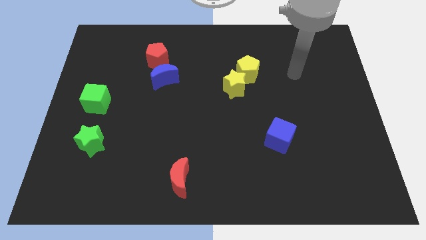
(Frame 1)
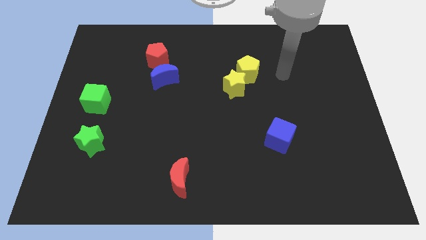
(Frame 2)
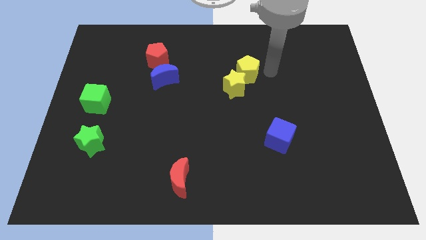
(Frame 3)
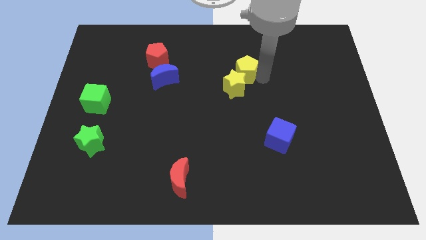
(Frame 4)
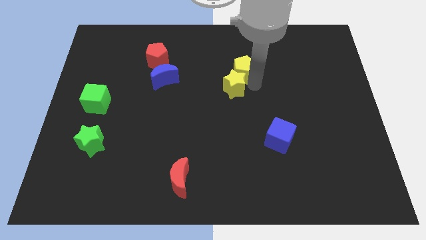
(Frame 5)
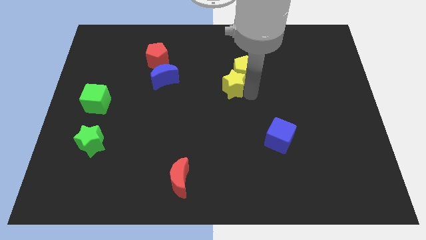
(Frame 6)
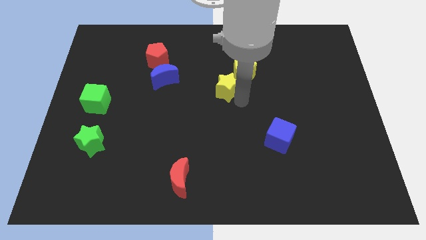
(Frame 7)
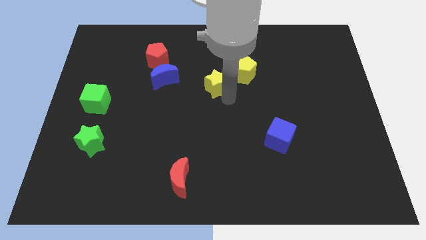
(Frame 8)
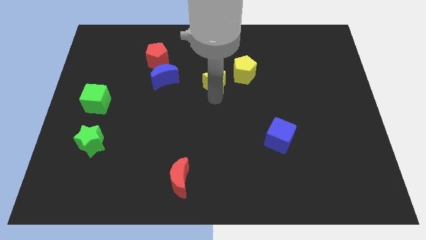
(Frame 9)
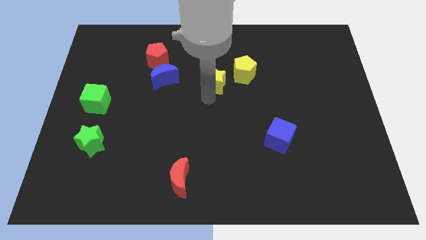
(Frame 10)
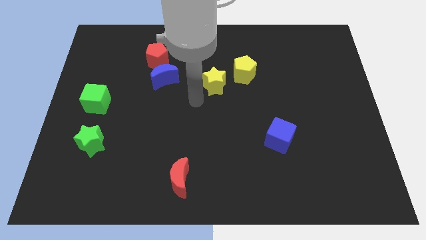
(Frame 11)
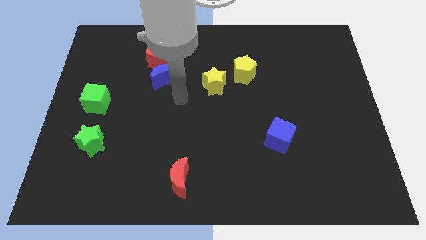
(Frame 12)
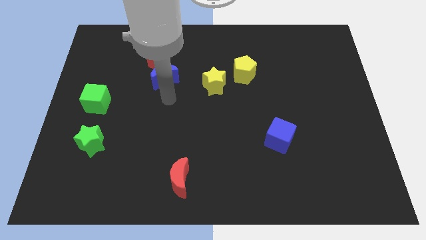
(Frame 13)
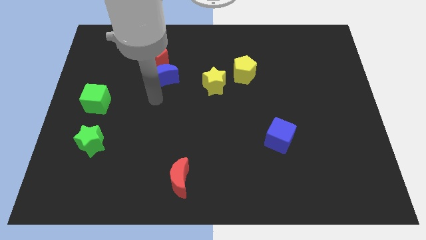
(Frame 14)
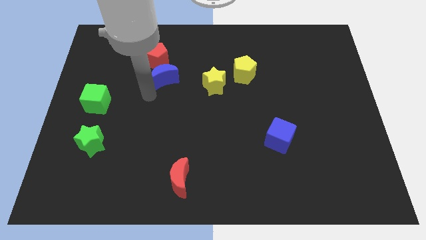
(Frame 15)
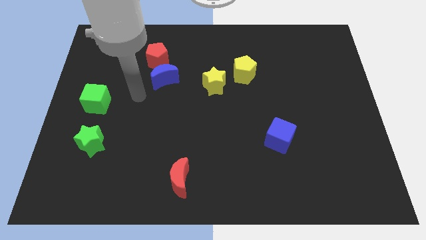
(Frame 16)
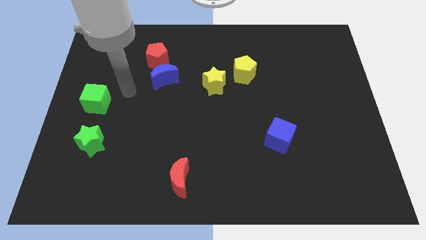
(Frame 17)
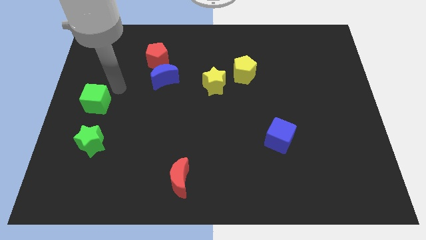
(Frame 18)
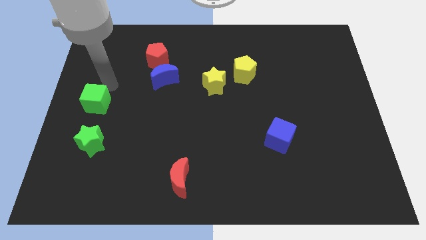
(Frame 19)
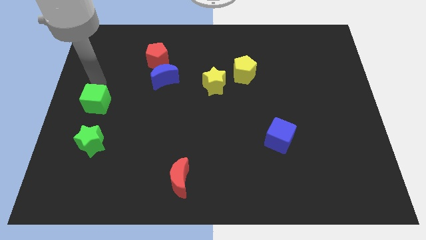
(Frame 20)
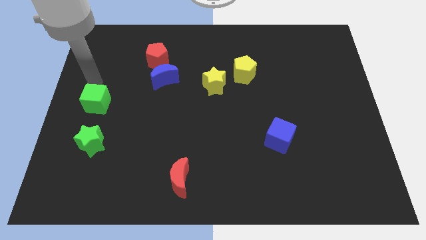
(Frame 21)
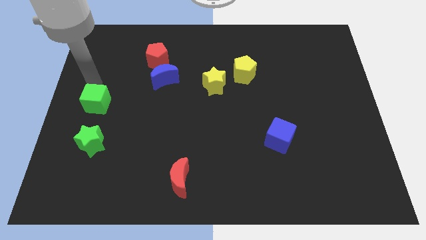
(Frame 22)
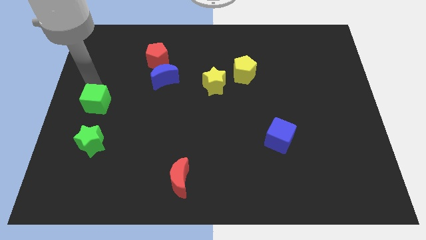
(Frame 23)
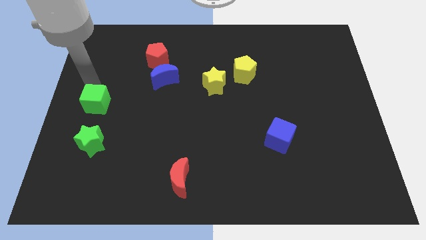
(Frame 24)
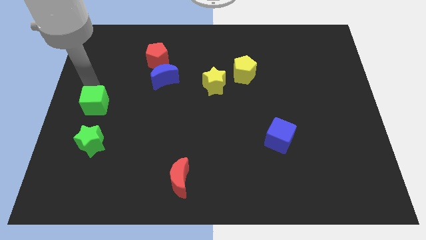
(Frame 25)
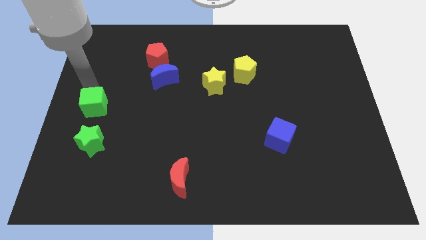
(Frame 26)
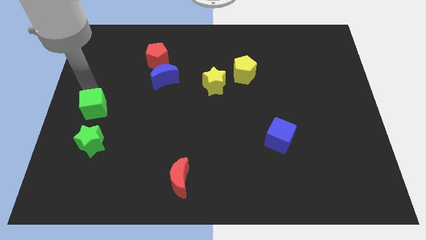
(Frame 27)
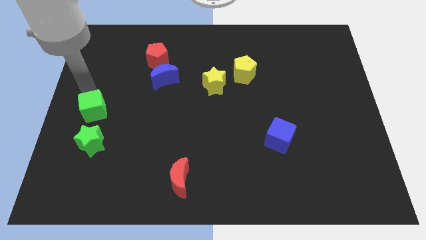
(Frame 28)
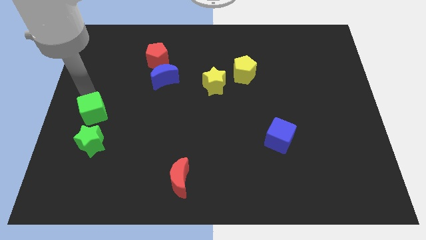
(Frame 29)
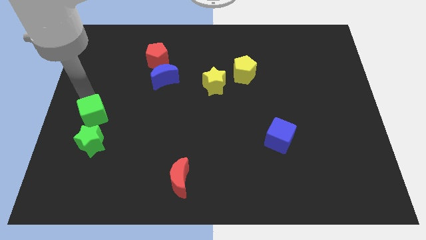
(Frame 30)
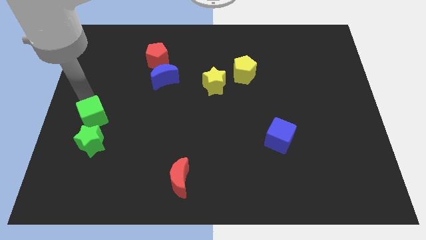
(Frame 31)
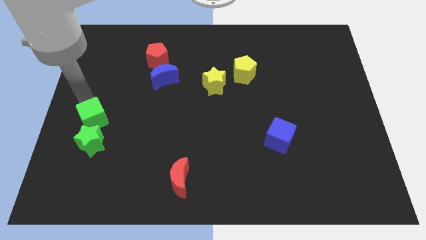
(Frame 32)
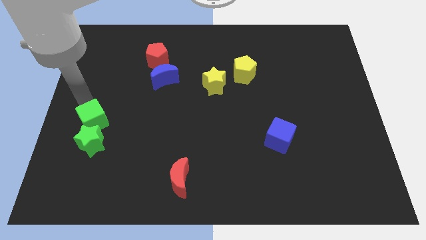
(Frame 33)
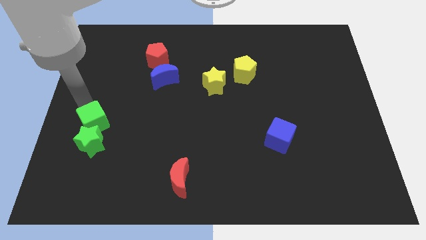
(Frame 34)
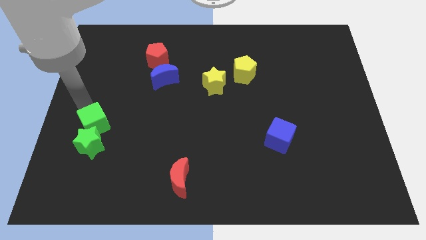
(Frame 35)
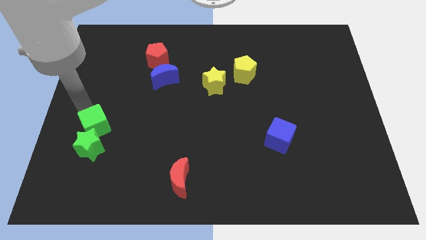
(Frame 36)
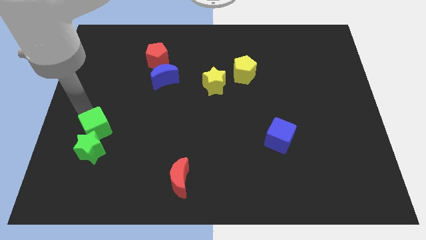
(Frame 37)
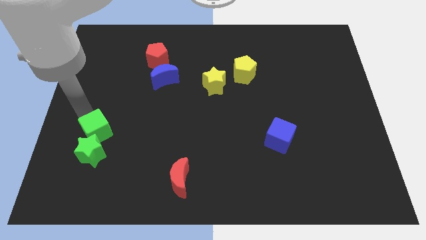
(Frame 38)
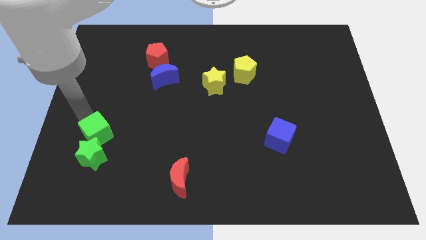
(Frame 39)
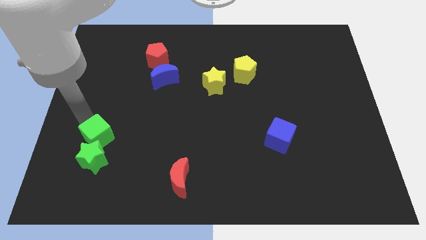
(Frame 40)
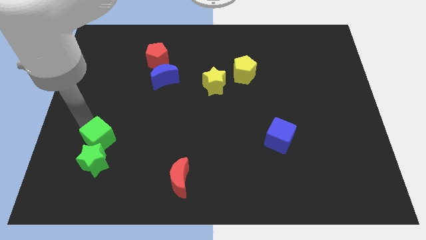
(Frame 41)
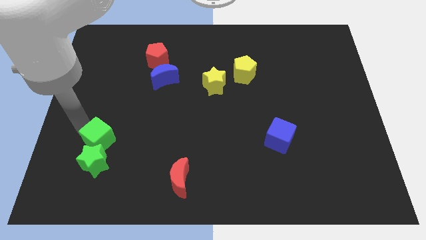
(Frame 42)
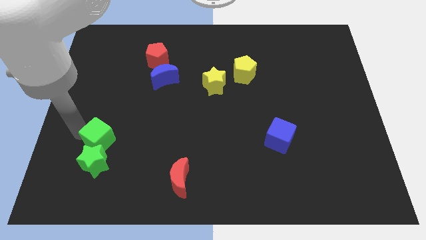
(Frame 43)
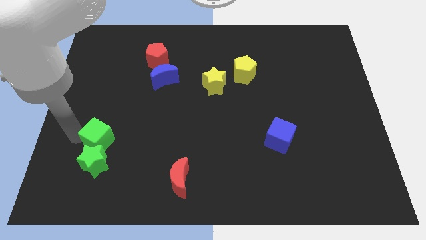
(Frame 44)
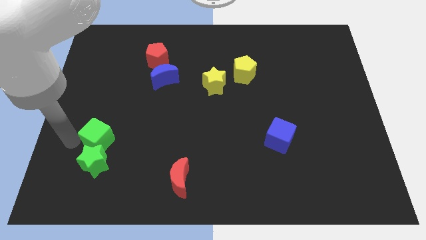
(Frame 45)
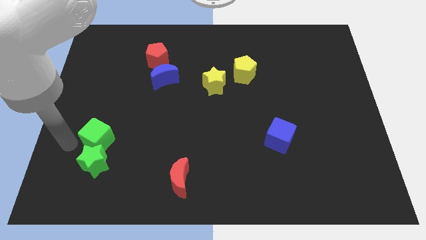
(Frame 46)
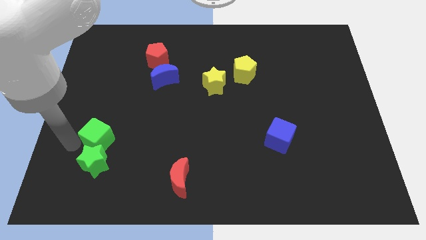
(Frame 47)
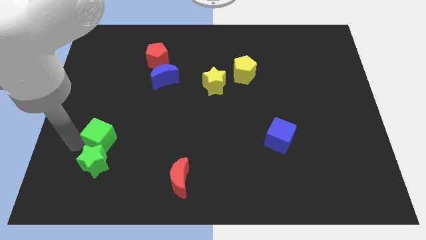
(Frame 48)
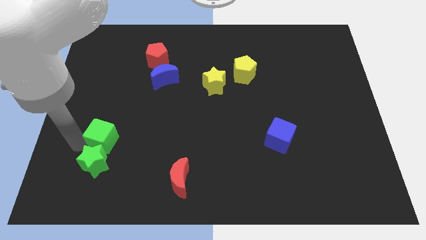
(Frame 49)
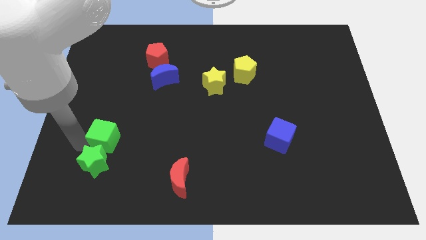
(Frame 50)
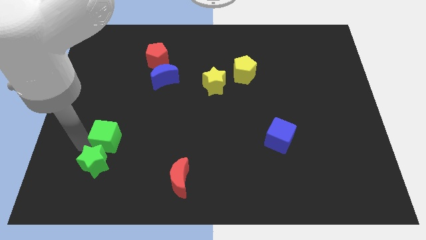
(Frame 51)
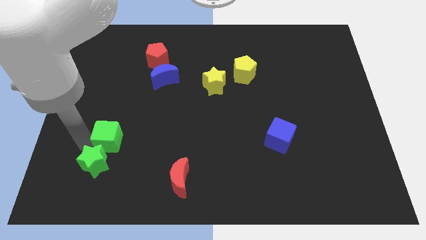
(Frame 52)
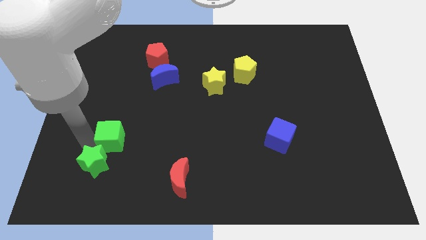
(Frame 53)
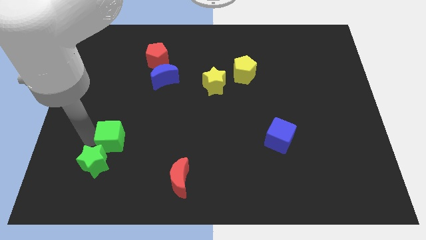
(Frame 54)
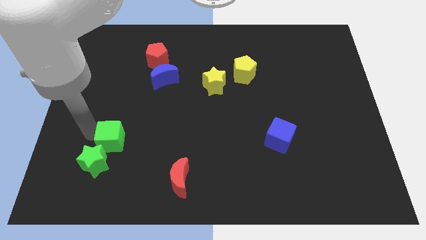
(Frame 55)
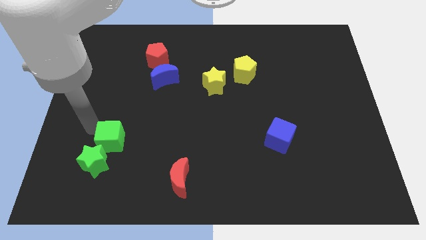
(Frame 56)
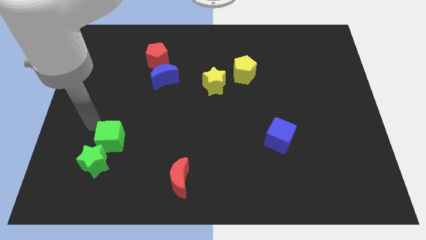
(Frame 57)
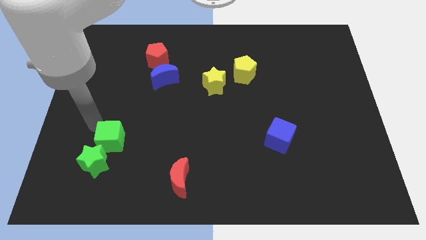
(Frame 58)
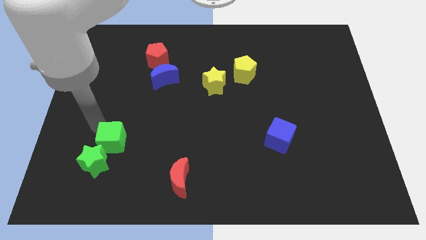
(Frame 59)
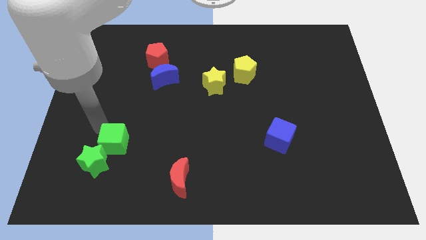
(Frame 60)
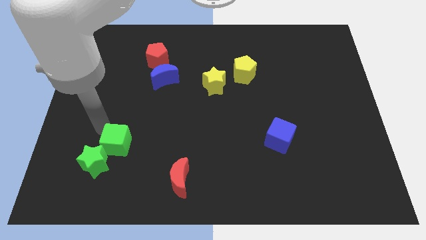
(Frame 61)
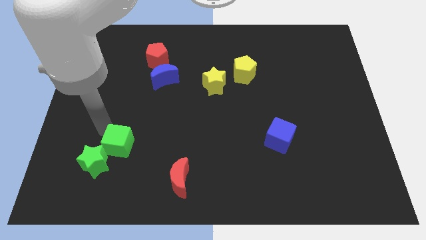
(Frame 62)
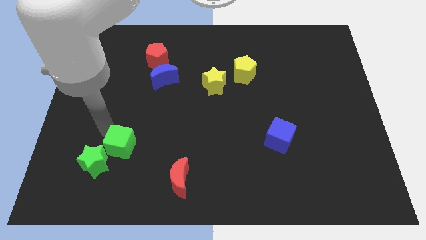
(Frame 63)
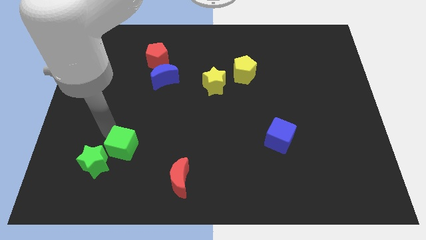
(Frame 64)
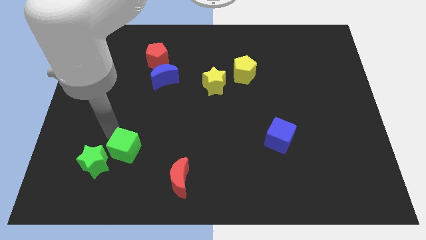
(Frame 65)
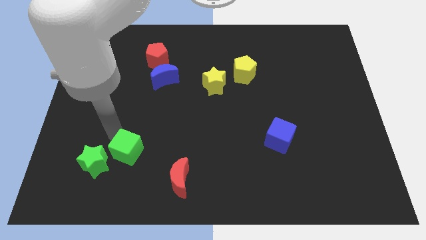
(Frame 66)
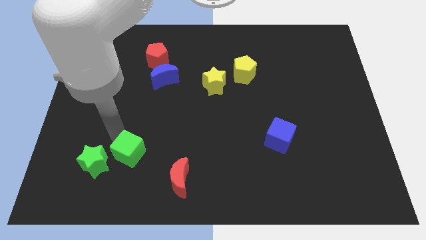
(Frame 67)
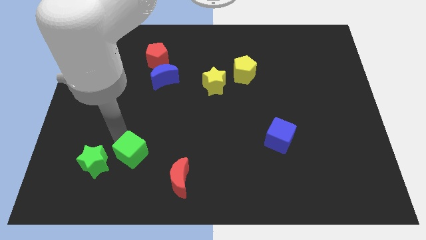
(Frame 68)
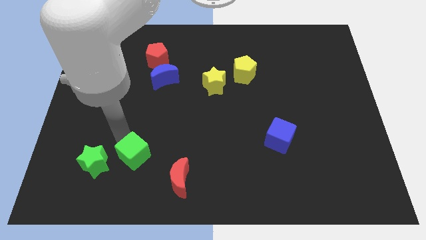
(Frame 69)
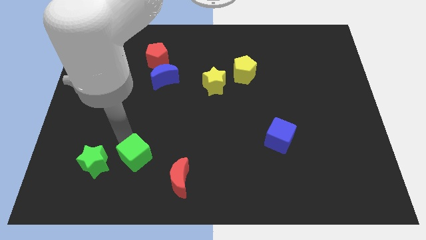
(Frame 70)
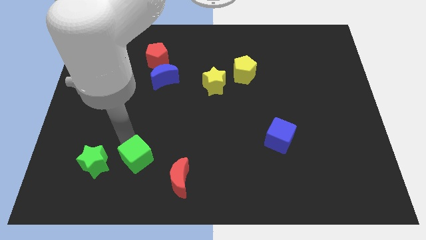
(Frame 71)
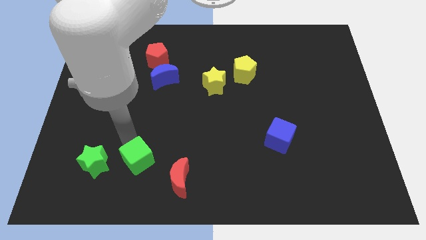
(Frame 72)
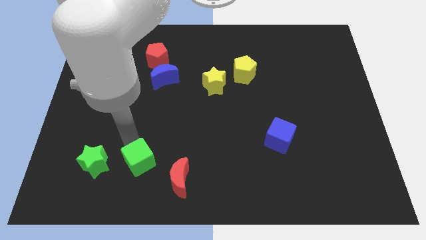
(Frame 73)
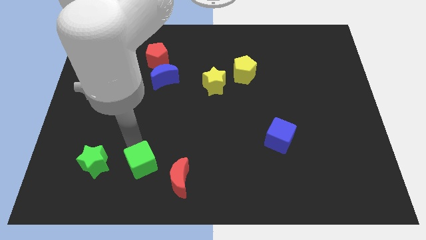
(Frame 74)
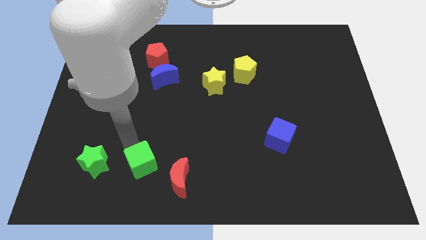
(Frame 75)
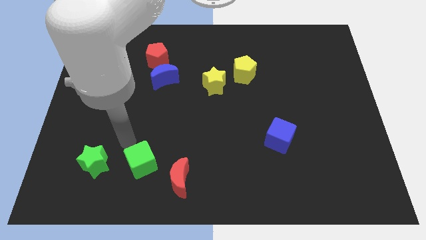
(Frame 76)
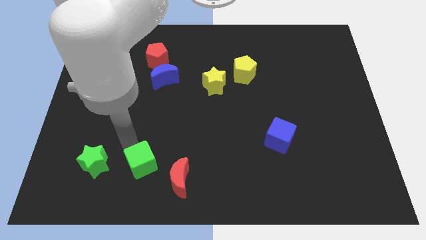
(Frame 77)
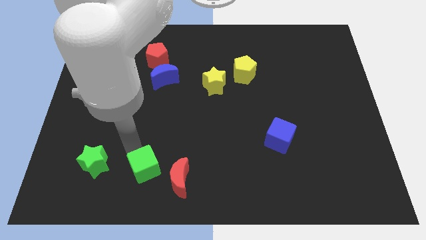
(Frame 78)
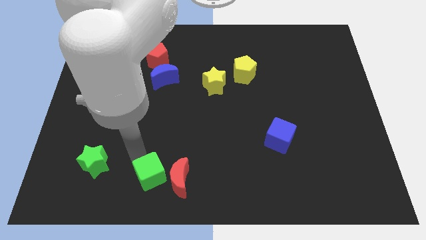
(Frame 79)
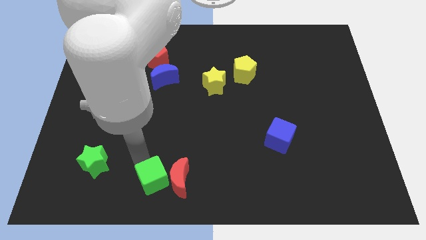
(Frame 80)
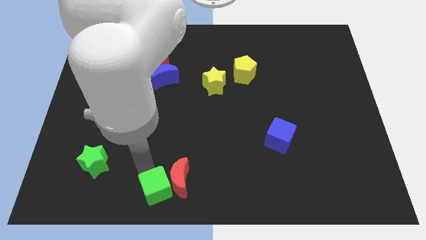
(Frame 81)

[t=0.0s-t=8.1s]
put the green cube to the bottom side
